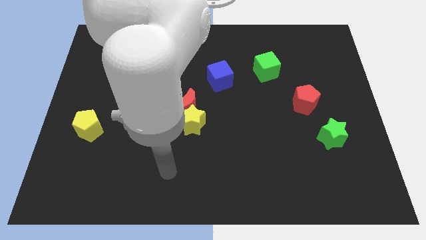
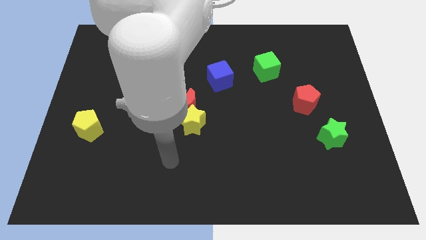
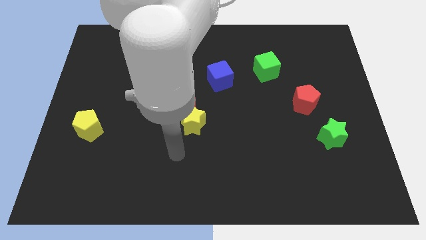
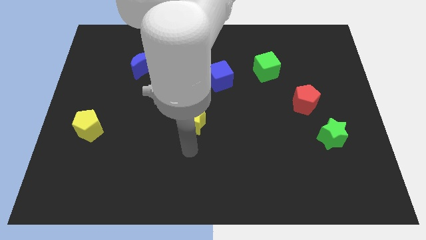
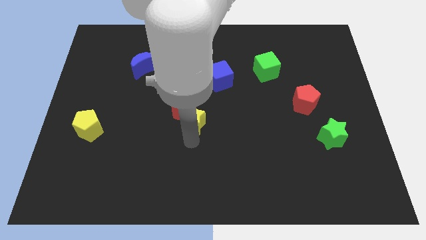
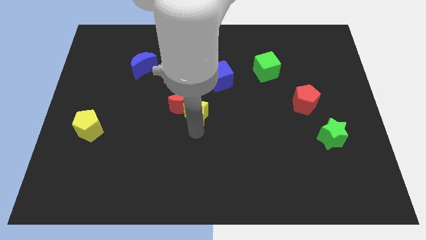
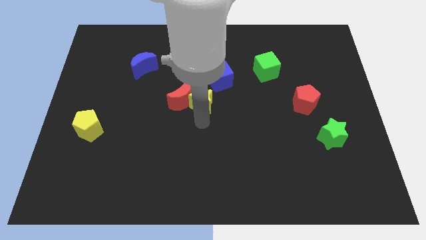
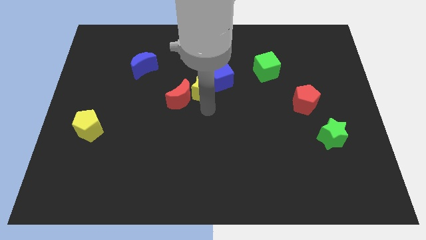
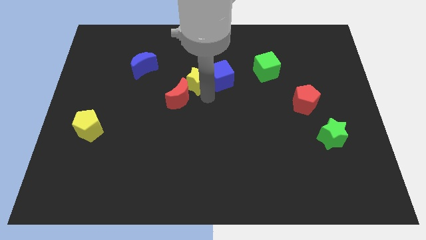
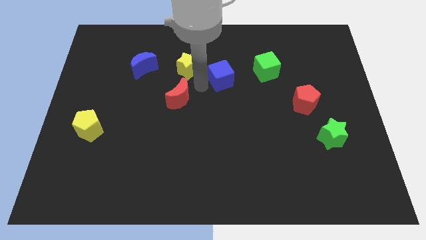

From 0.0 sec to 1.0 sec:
move the red moon away from the yellow star

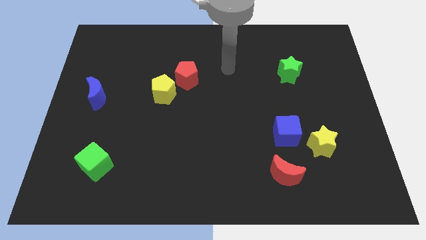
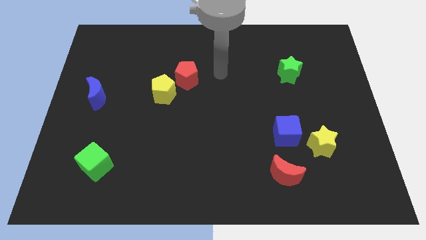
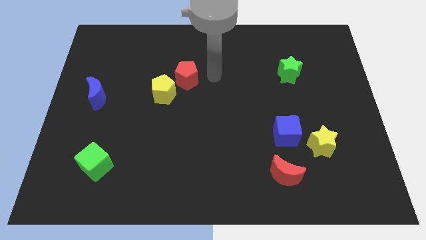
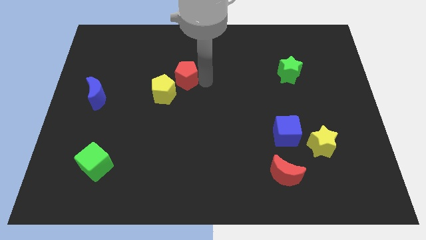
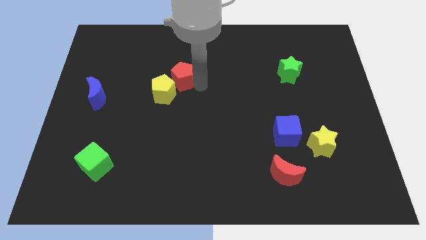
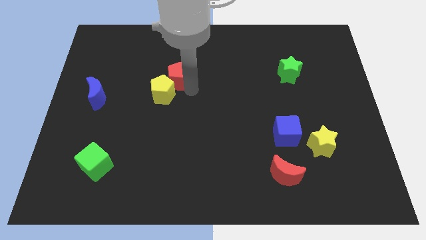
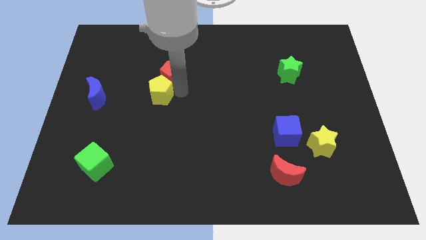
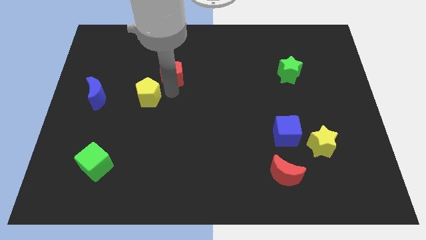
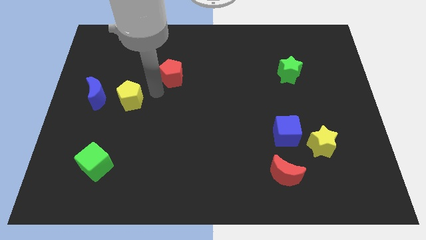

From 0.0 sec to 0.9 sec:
move the red pentagon away from the yellow pentagon

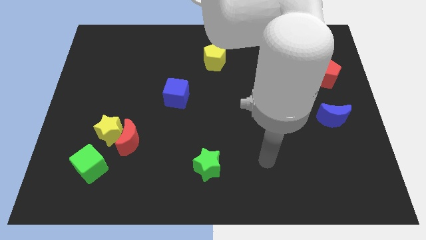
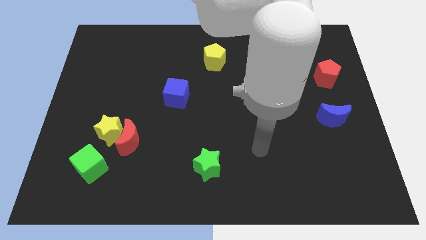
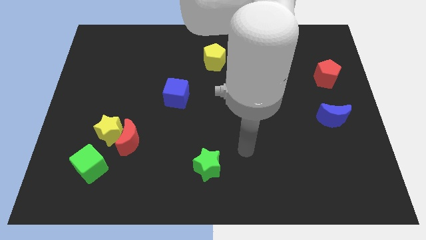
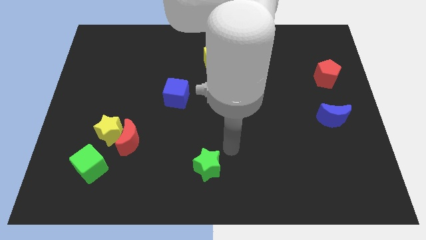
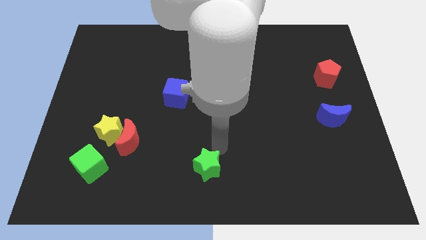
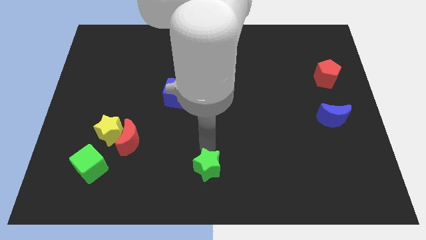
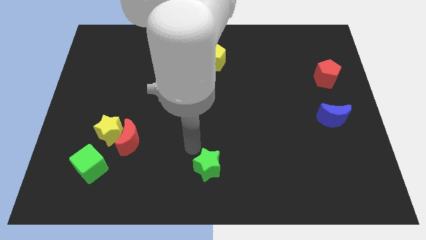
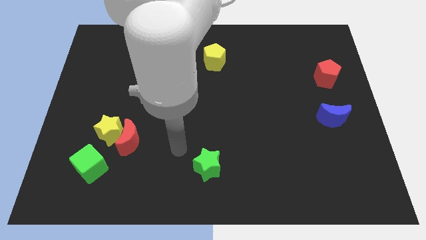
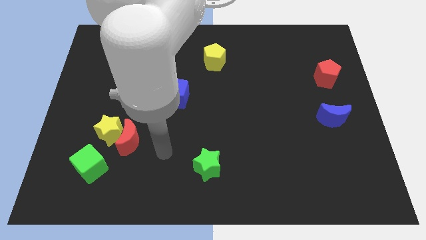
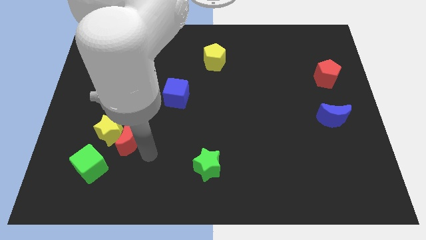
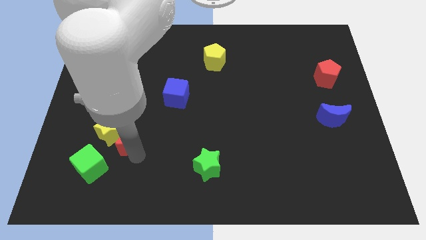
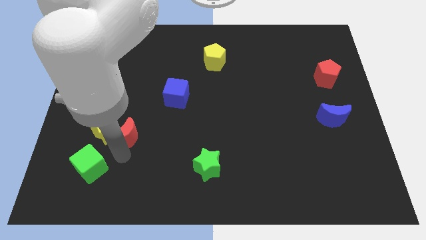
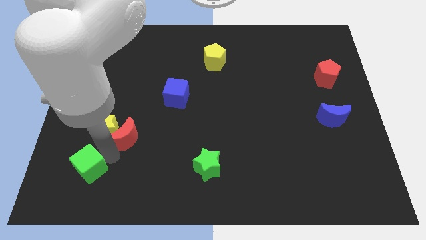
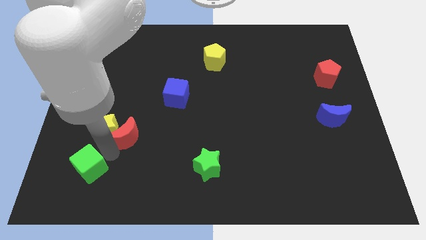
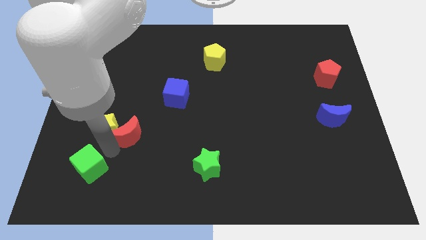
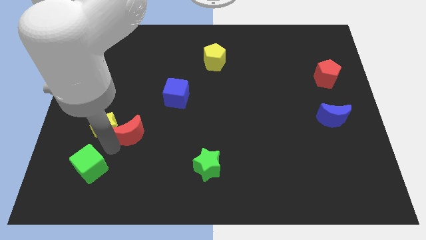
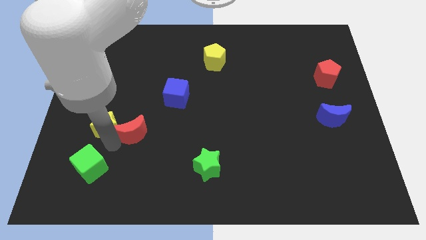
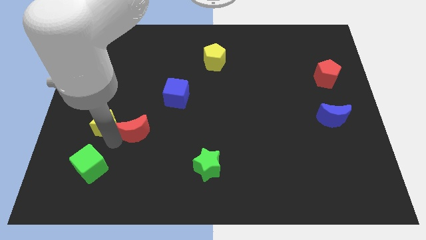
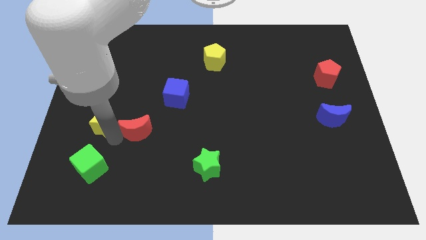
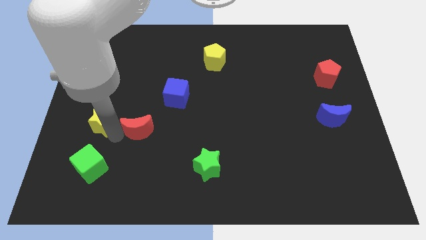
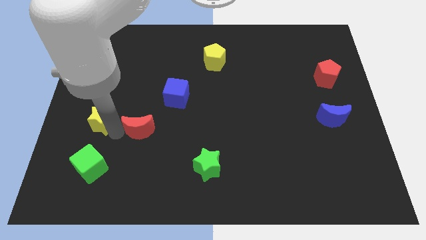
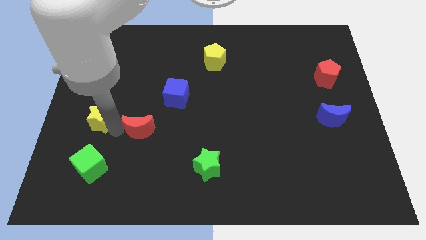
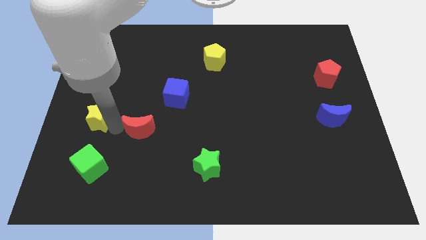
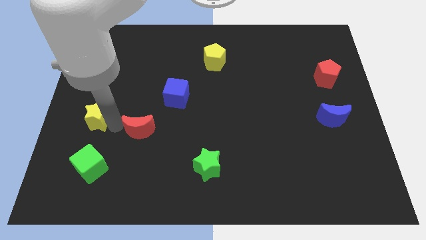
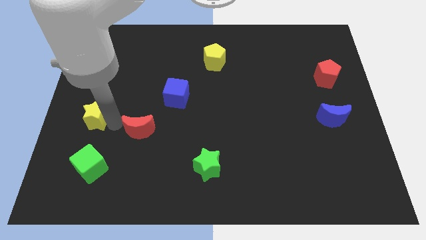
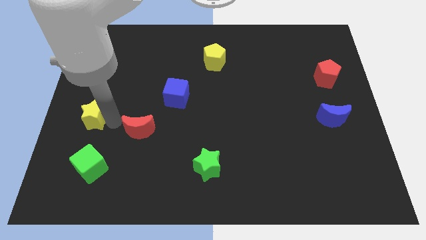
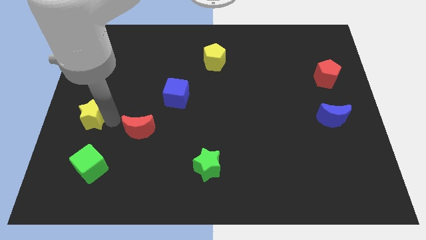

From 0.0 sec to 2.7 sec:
separate the yellow star from the red moon and green cube

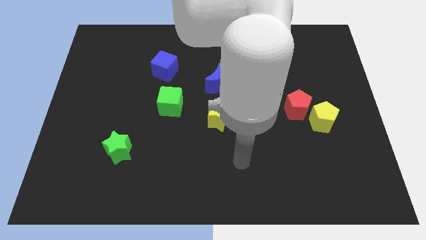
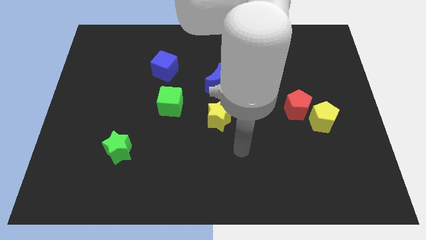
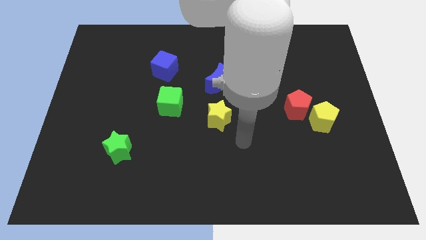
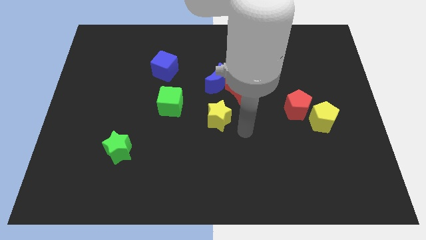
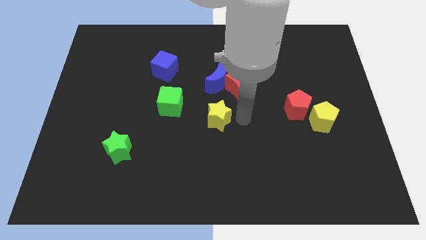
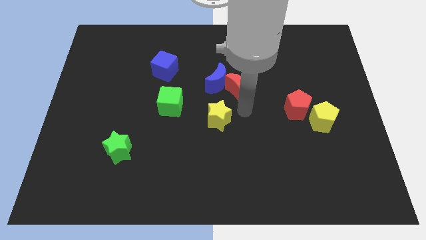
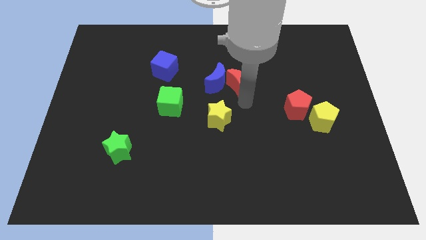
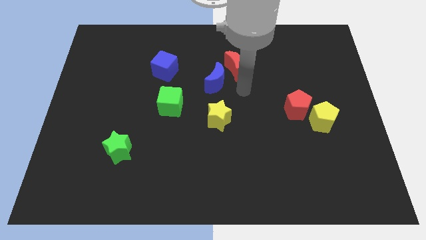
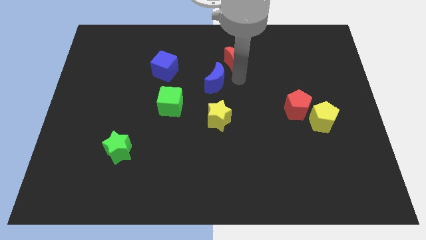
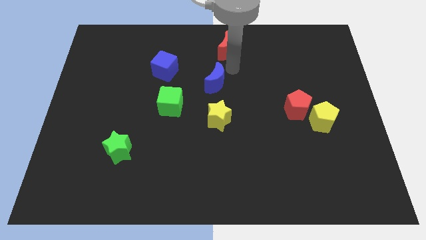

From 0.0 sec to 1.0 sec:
separate the blue moon from the red moon

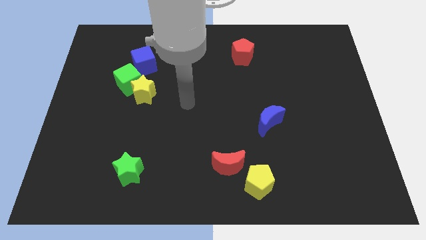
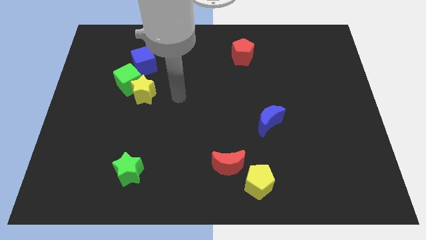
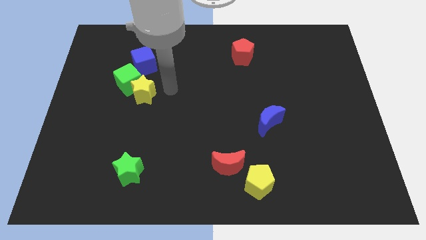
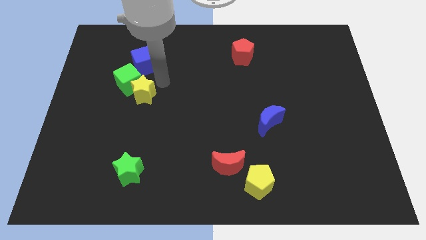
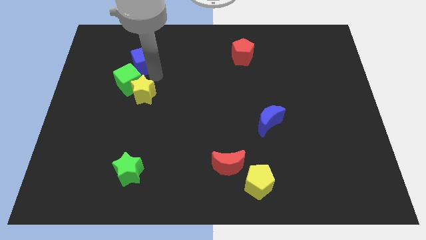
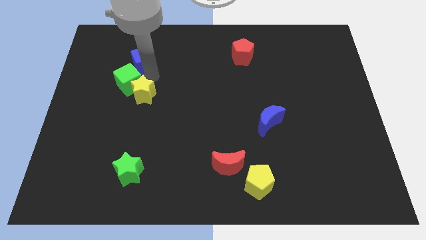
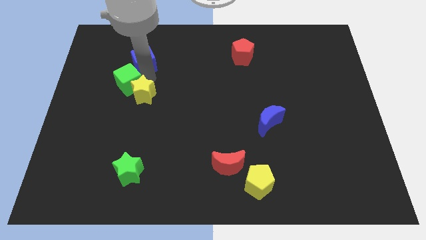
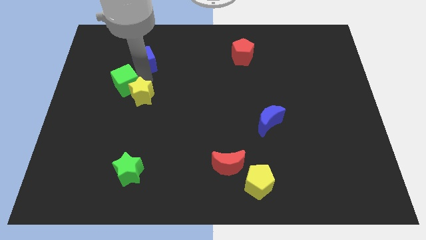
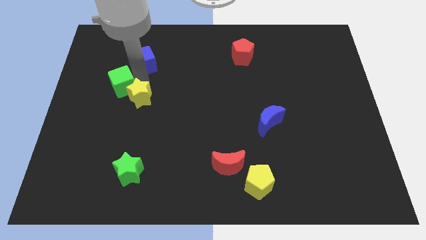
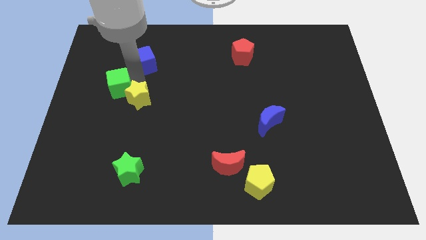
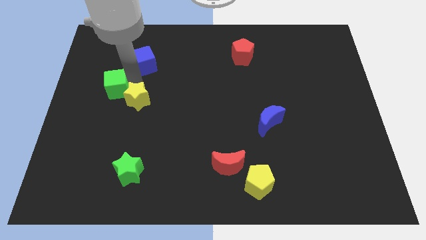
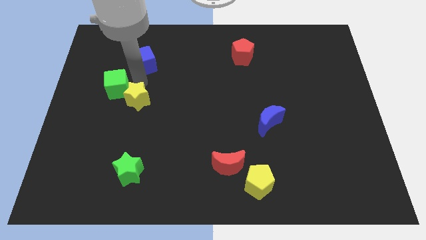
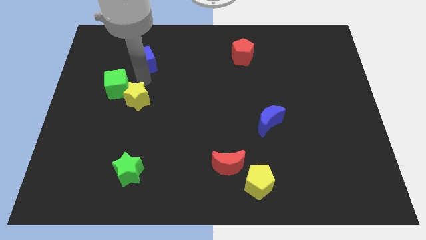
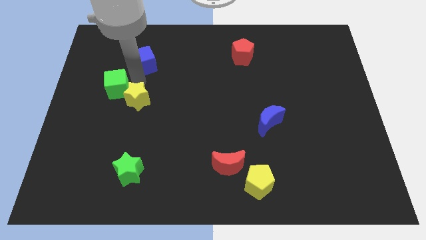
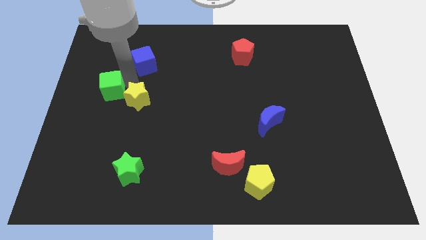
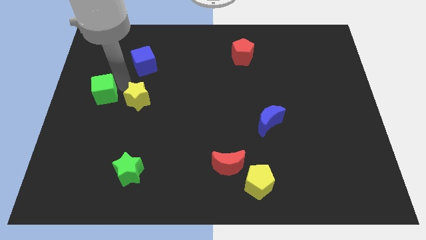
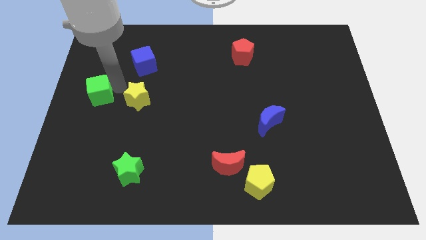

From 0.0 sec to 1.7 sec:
separate the green cube from the yellow star and blue cube

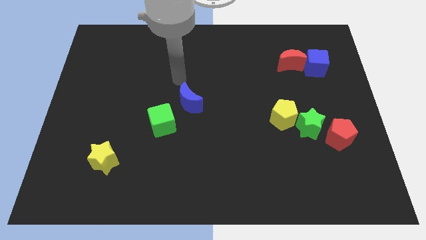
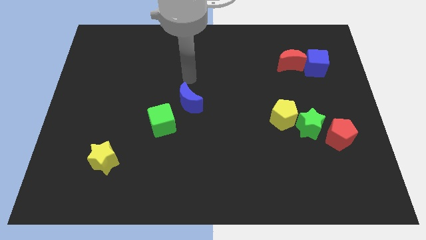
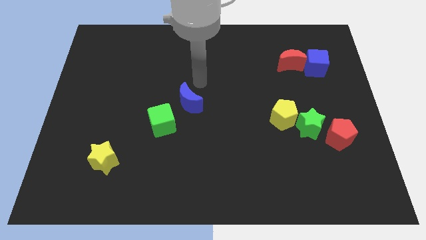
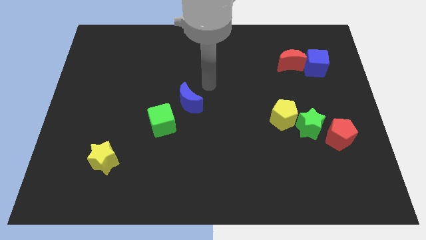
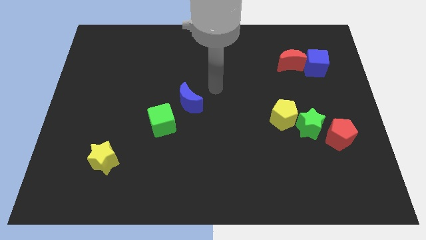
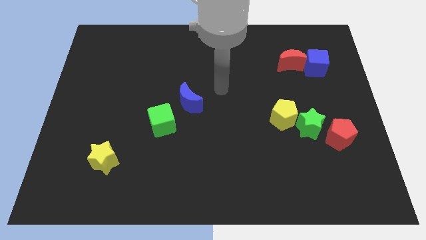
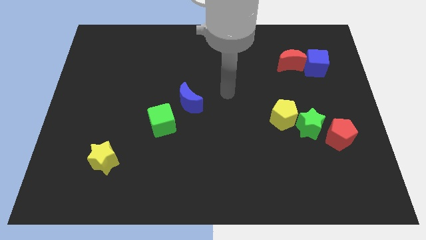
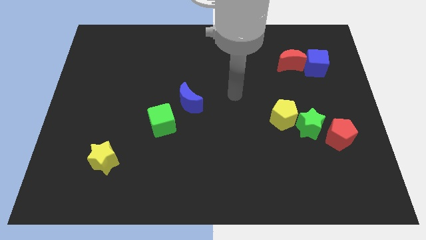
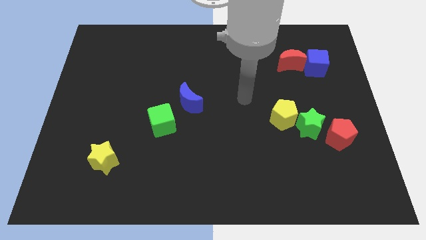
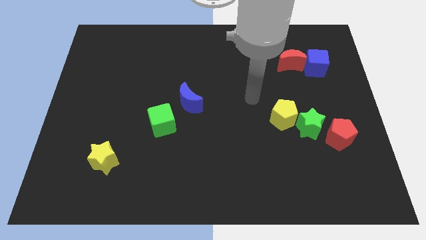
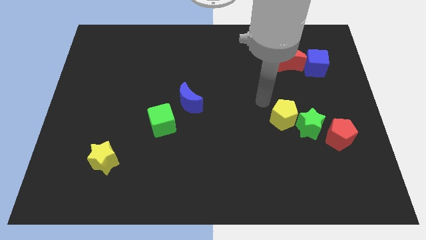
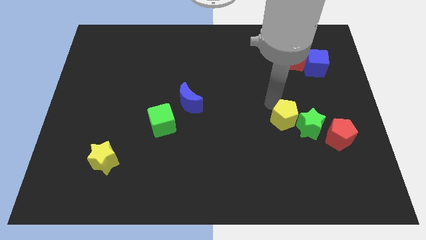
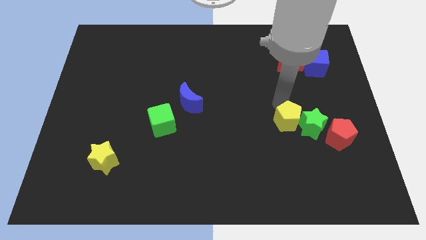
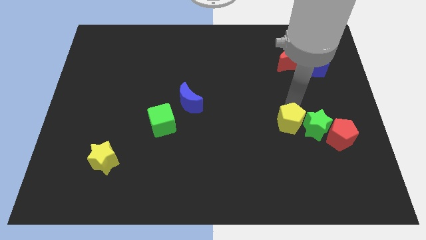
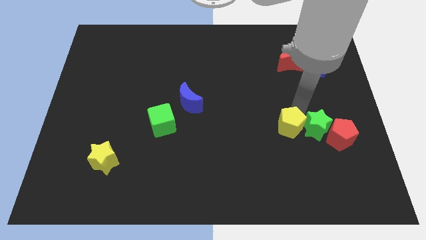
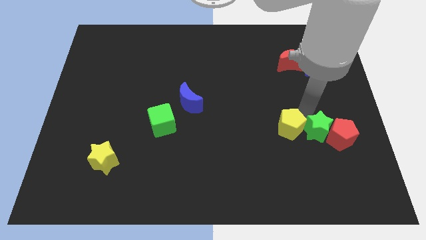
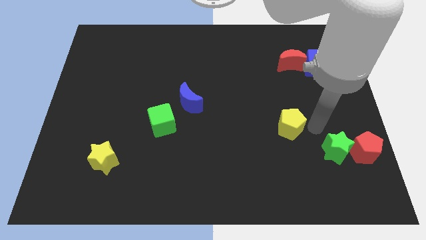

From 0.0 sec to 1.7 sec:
pull the yellow pentagon apart from the green star
